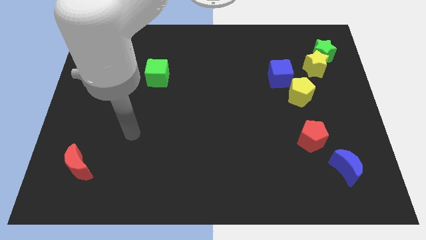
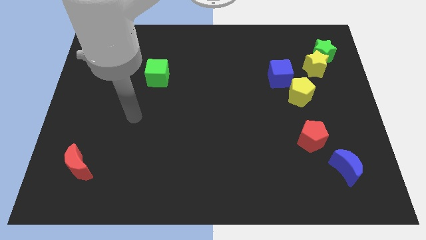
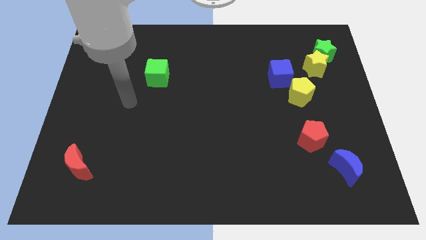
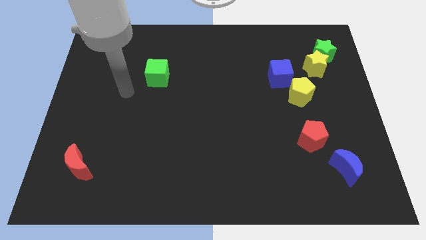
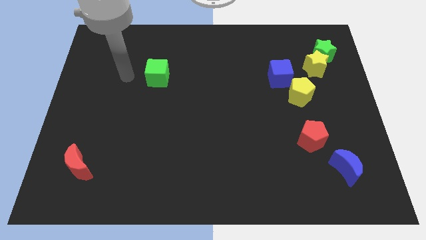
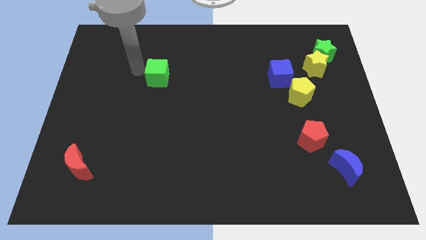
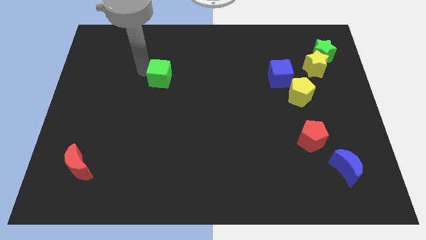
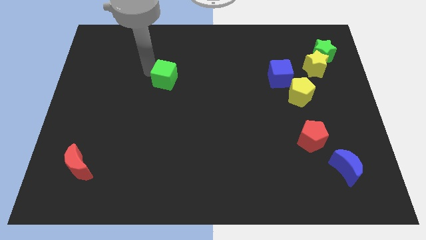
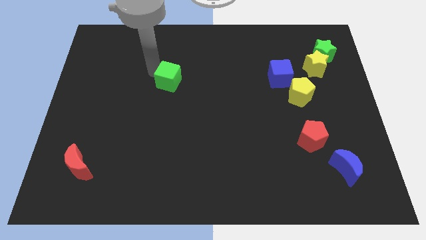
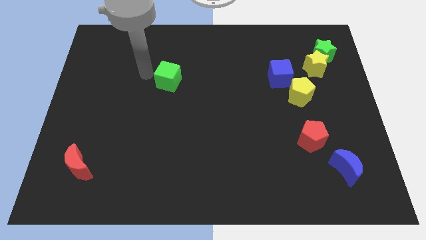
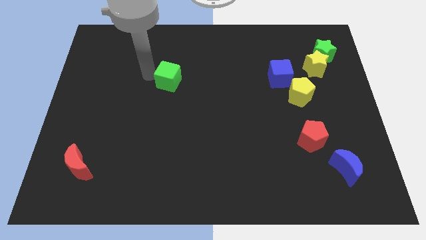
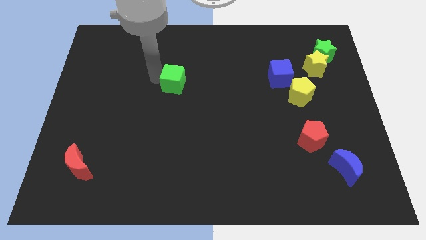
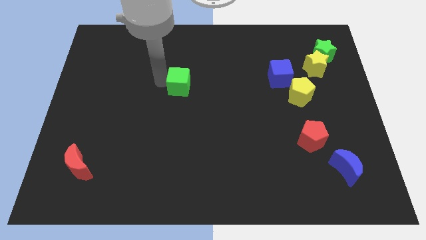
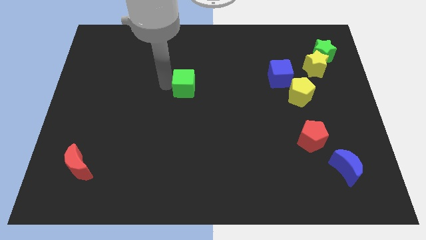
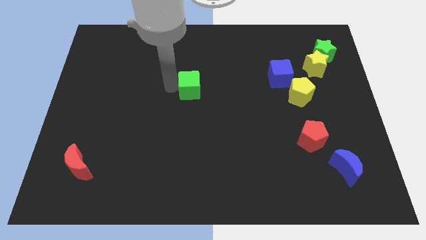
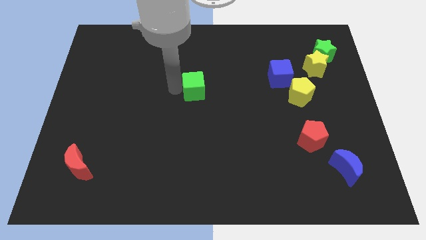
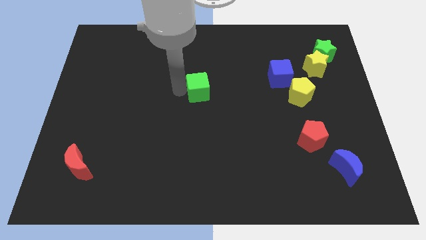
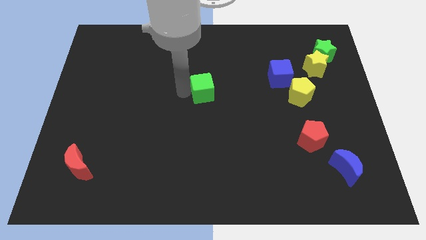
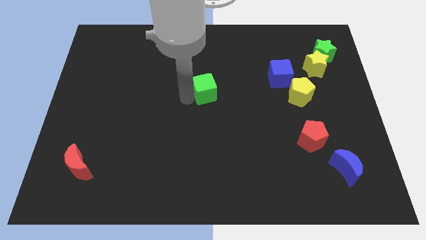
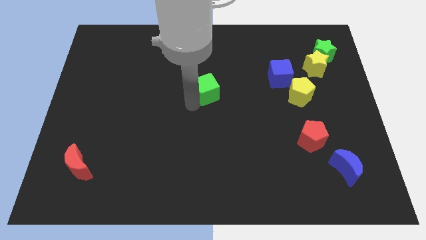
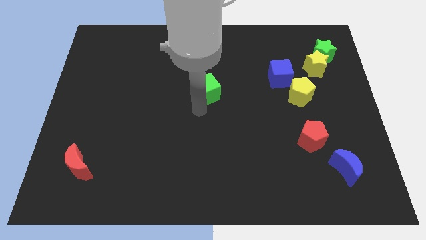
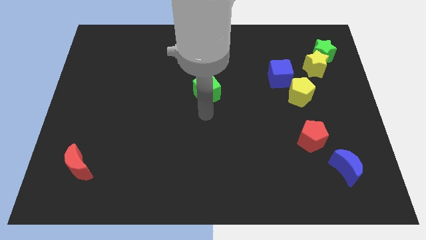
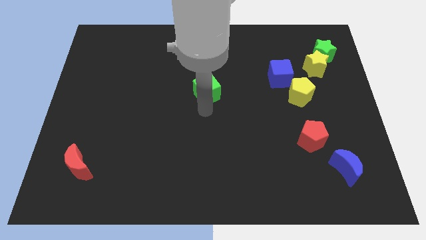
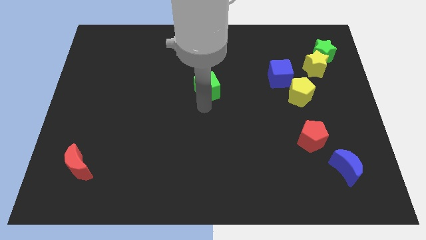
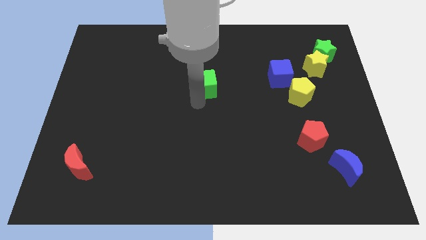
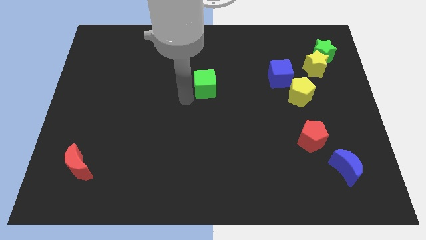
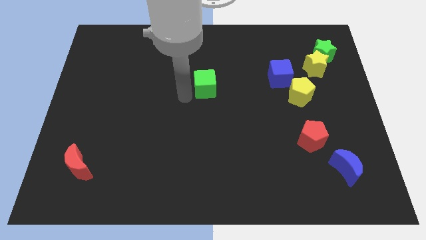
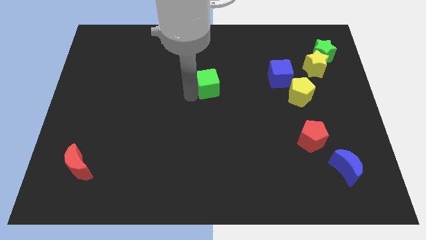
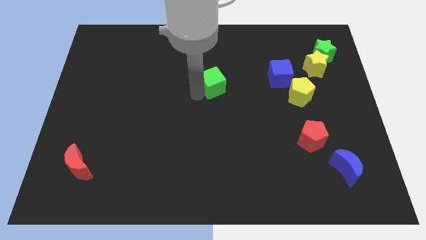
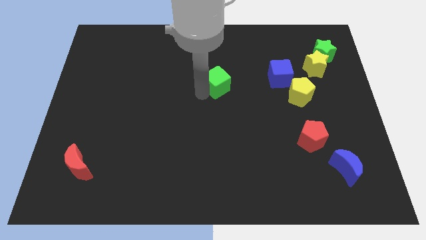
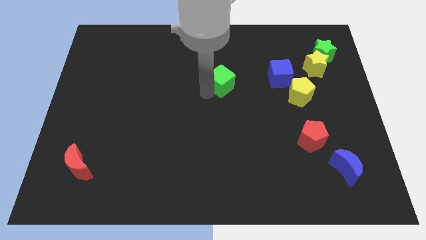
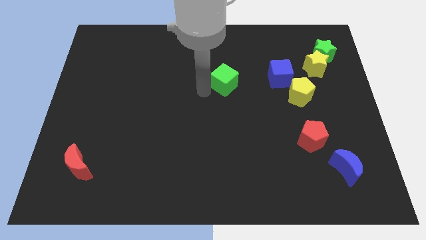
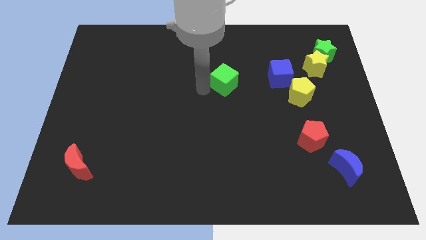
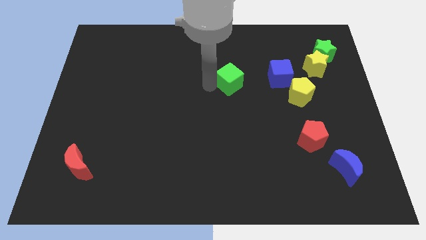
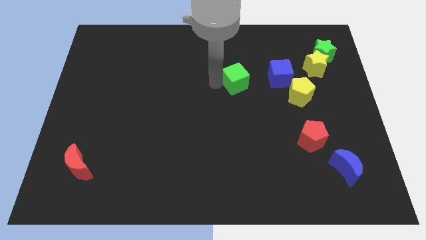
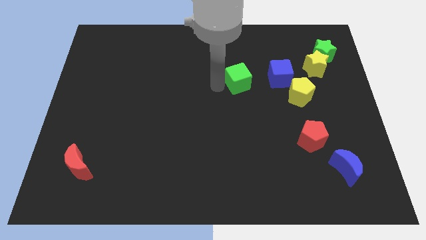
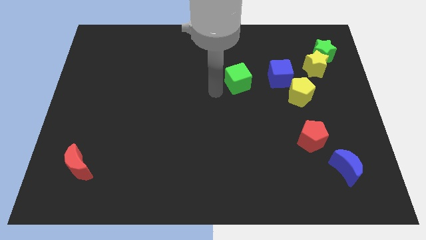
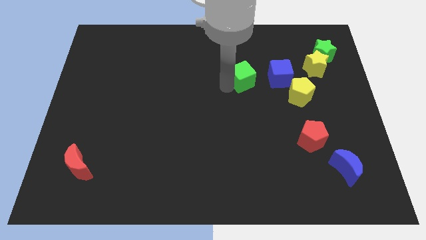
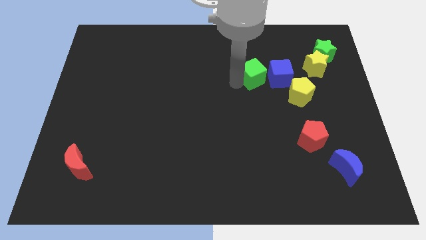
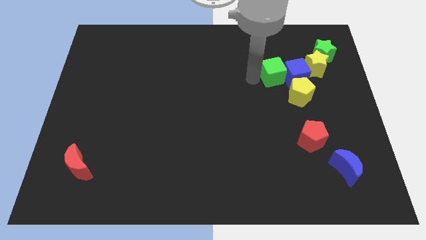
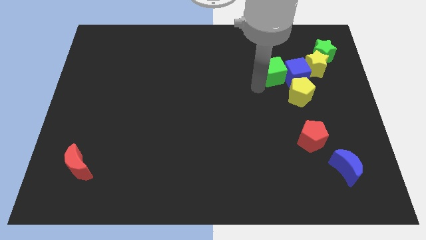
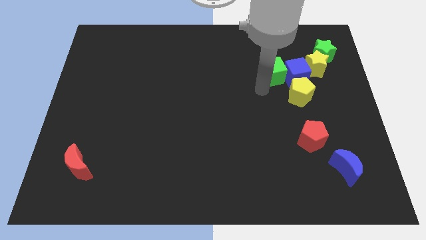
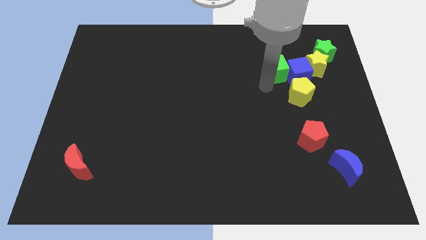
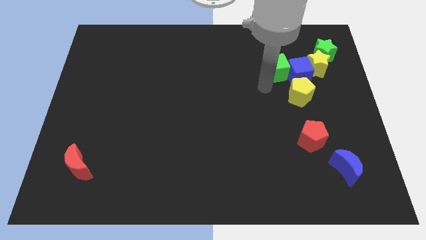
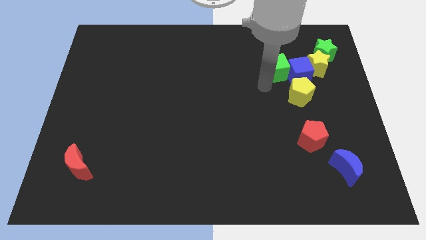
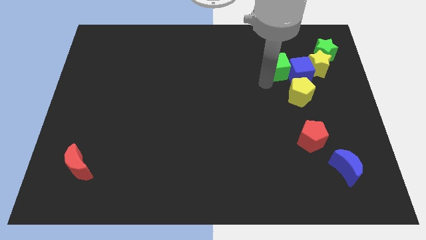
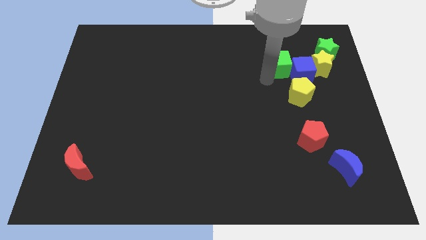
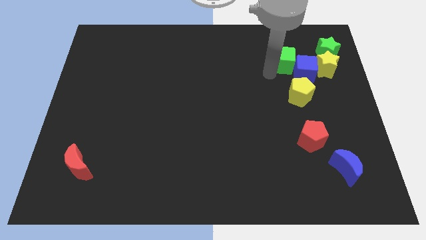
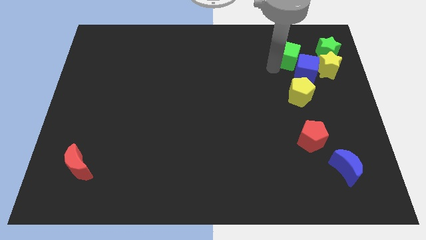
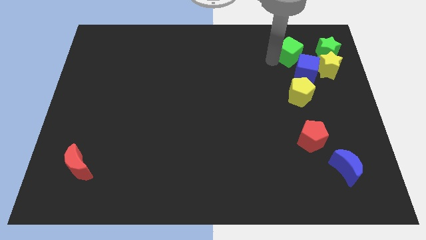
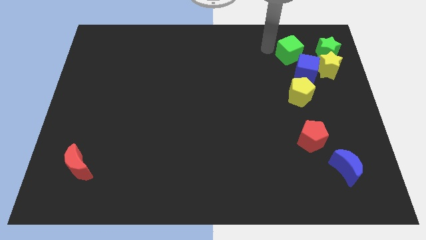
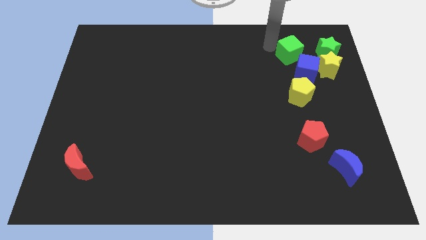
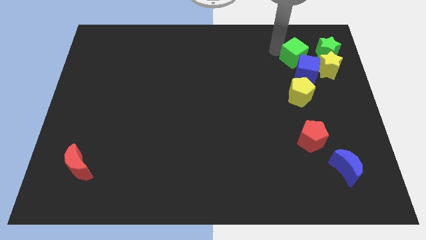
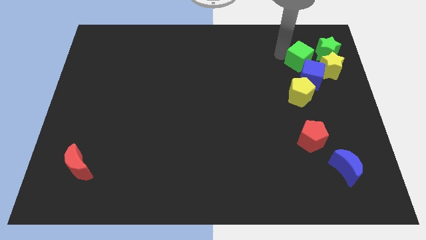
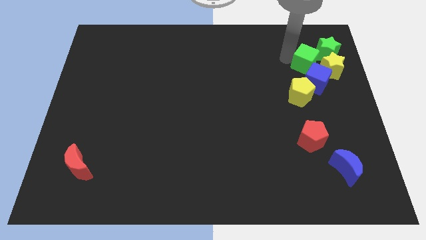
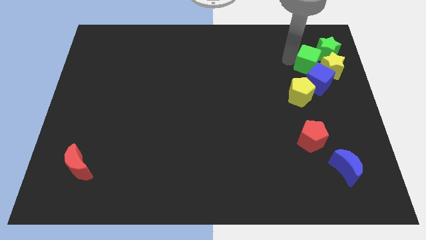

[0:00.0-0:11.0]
put the green cube close to the yellow star

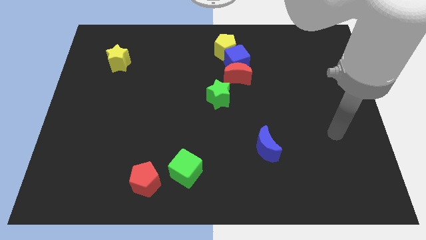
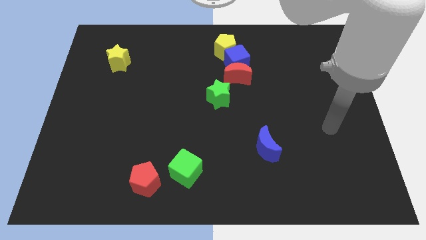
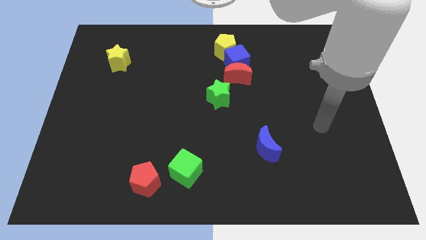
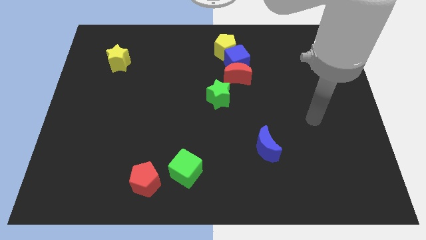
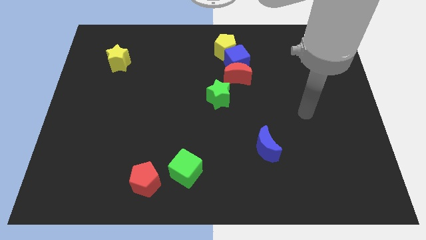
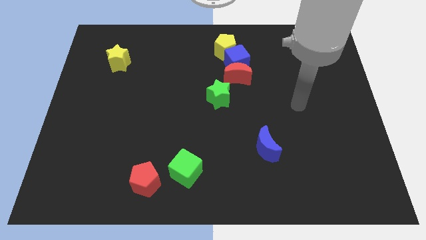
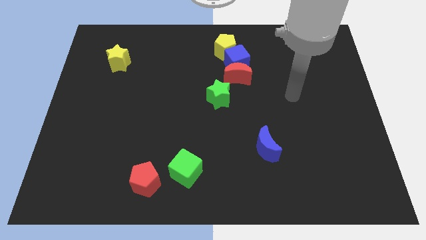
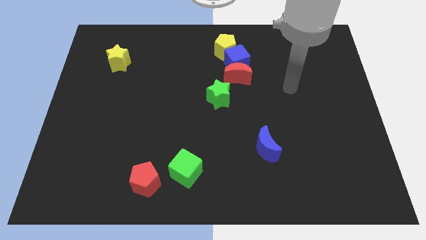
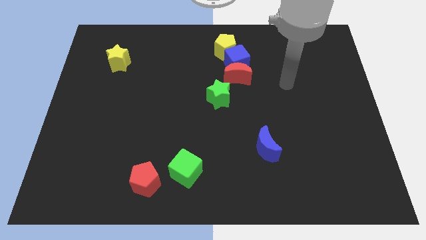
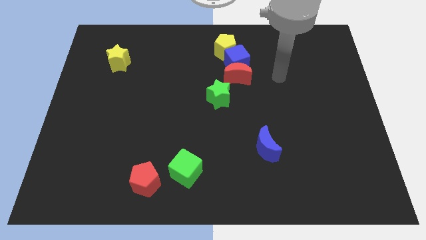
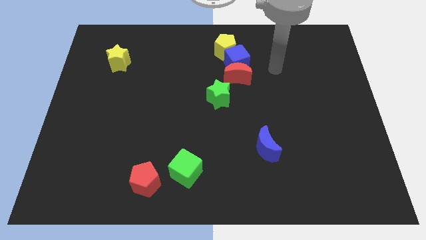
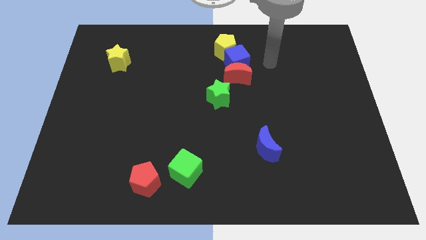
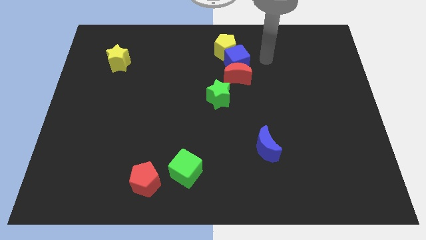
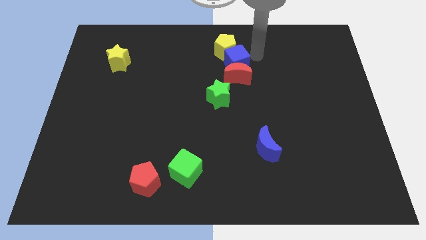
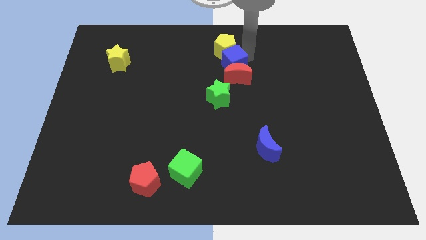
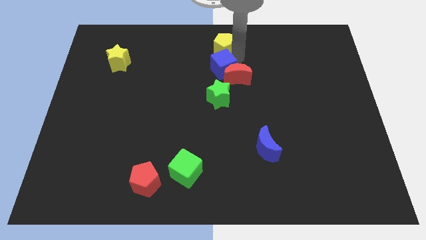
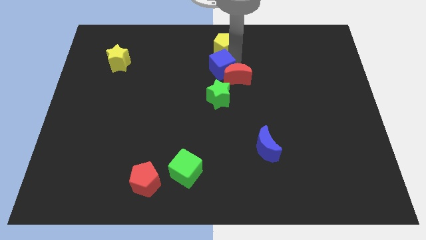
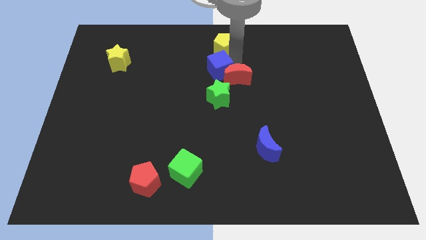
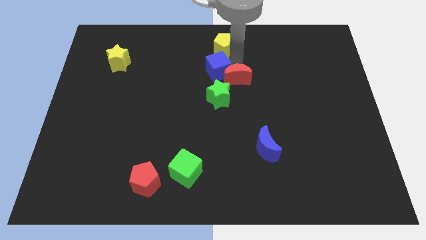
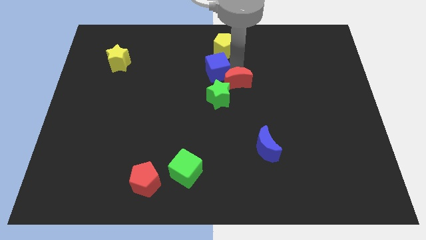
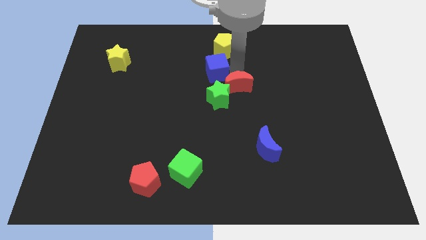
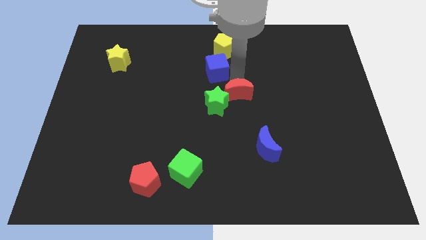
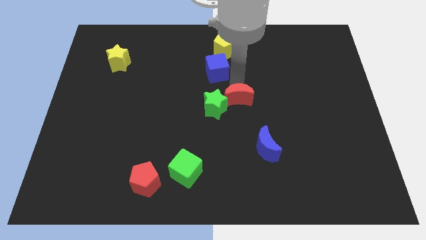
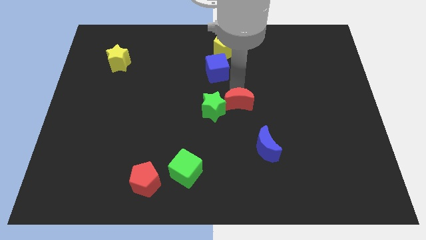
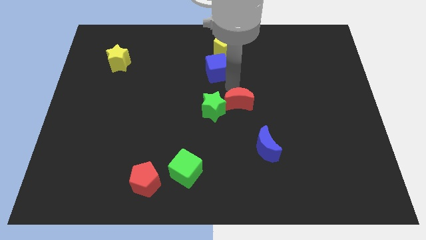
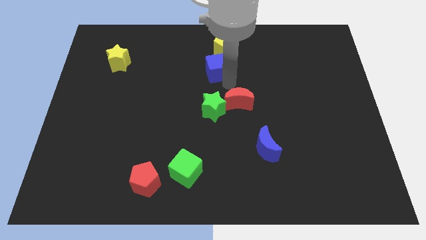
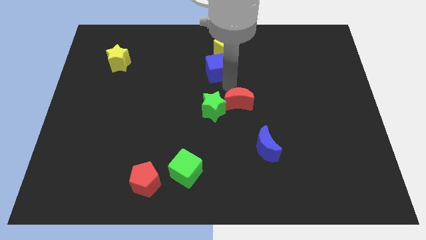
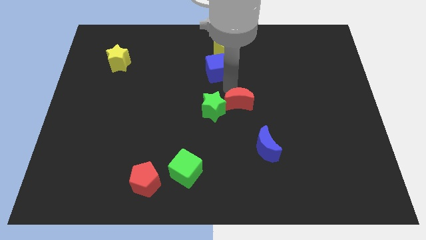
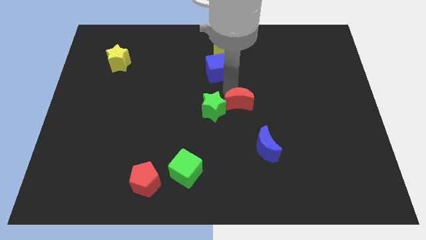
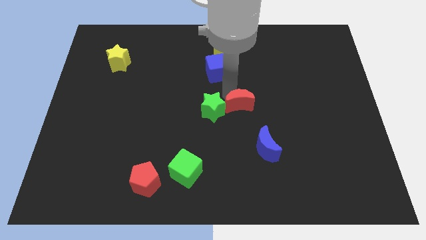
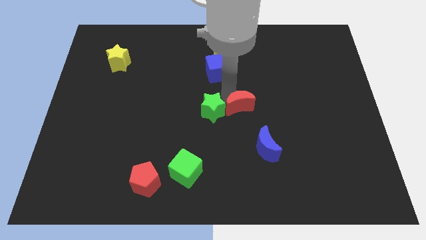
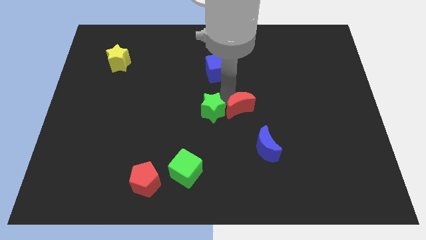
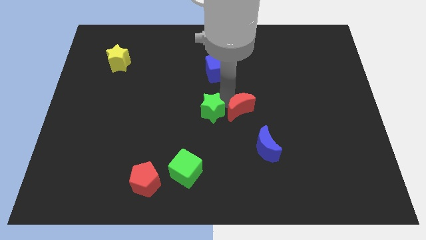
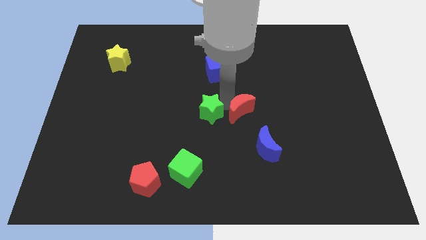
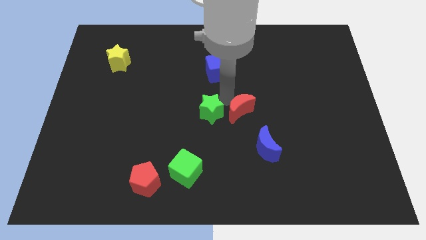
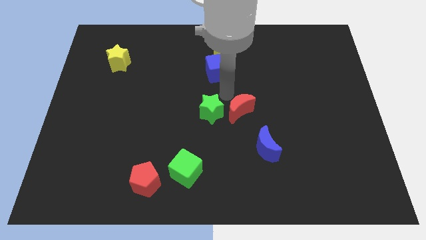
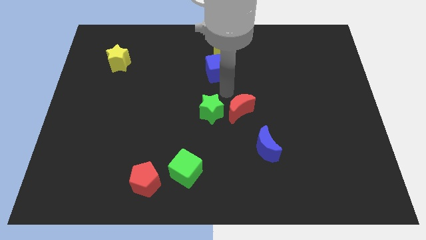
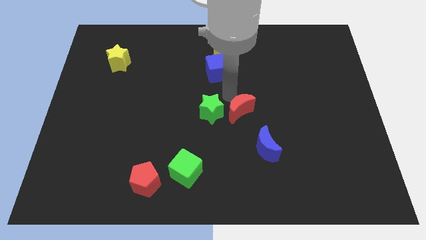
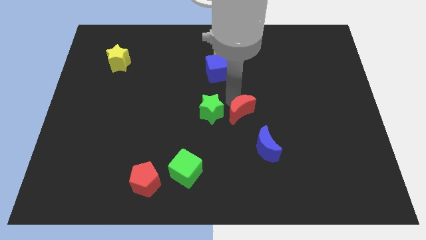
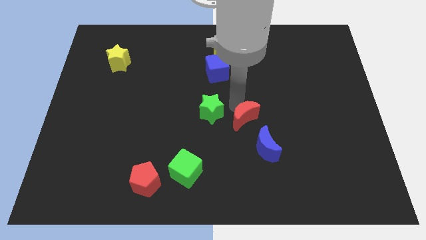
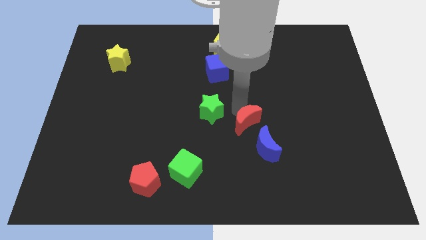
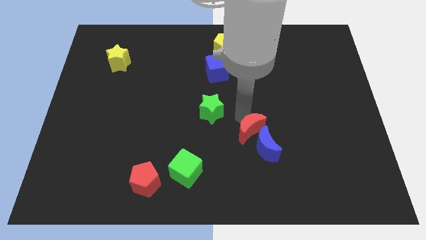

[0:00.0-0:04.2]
put the red moon towards the blue moon
